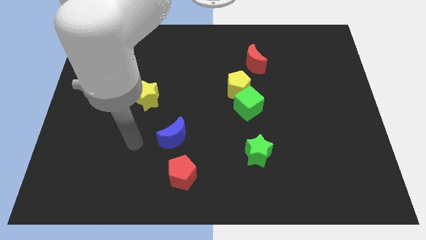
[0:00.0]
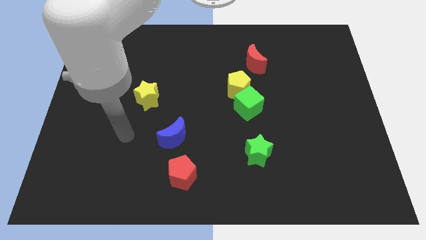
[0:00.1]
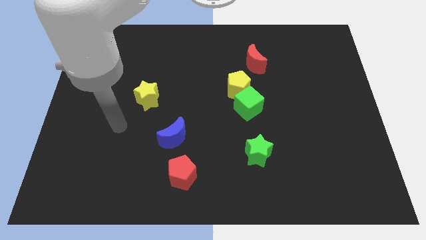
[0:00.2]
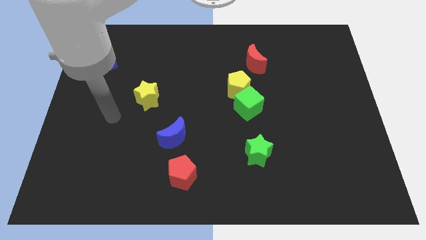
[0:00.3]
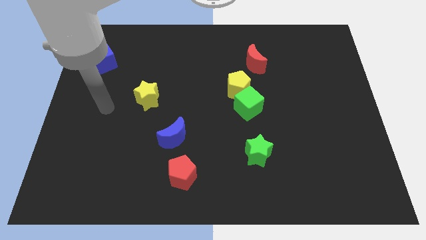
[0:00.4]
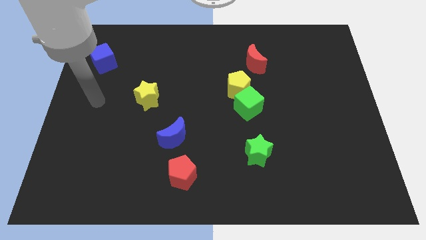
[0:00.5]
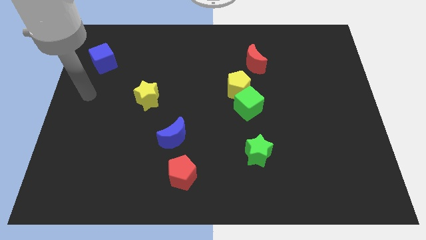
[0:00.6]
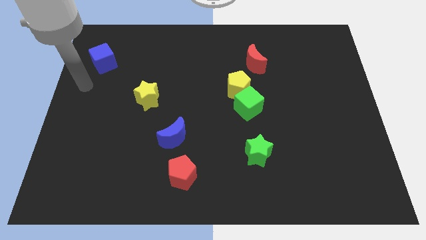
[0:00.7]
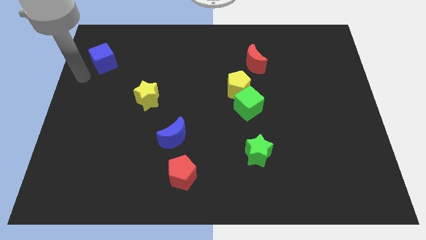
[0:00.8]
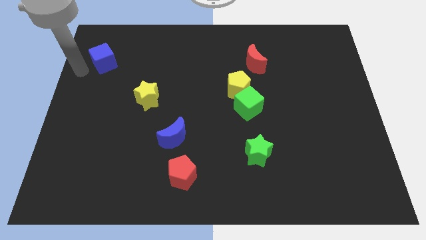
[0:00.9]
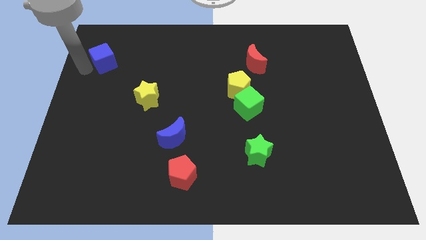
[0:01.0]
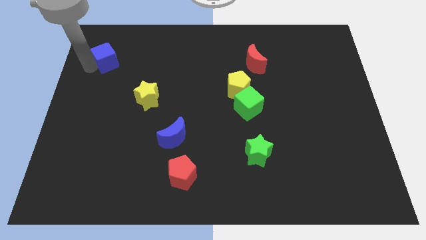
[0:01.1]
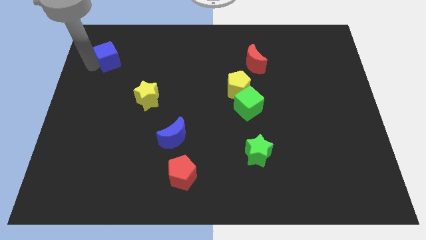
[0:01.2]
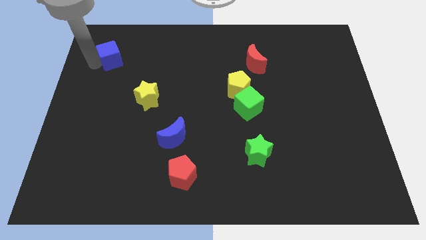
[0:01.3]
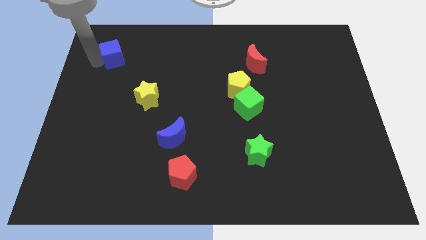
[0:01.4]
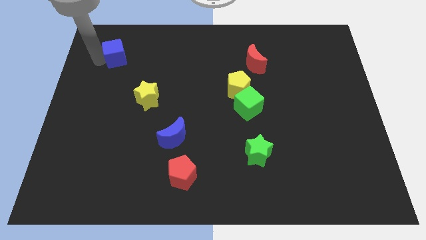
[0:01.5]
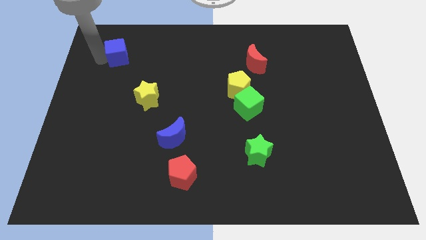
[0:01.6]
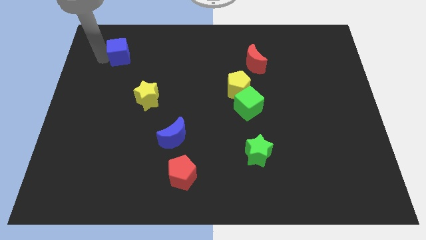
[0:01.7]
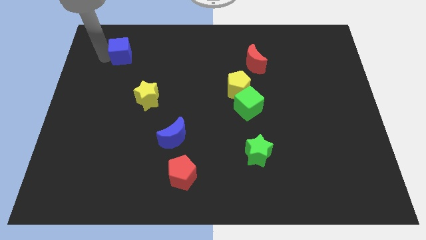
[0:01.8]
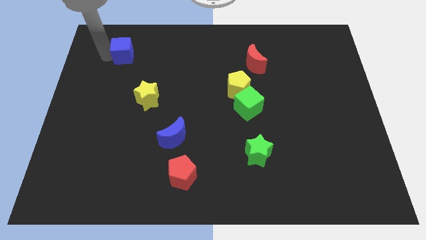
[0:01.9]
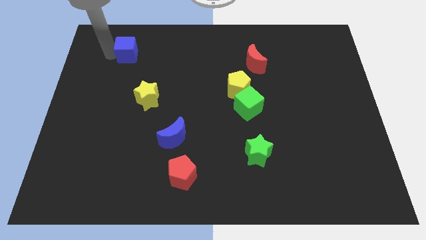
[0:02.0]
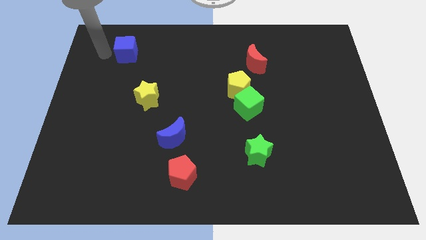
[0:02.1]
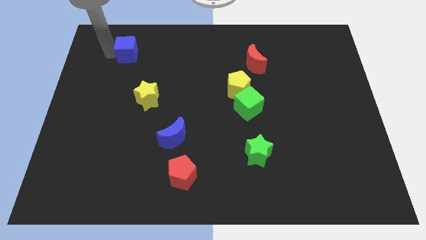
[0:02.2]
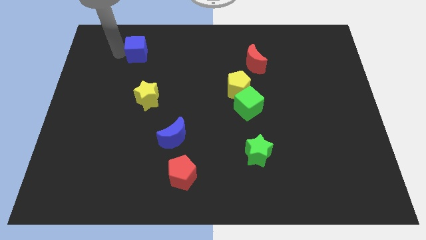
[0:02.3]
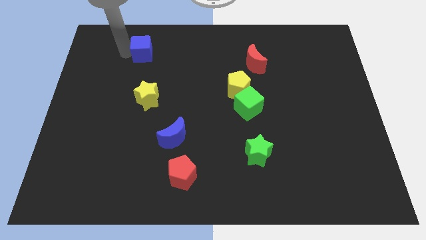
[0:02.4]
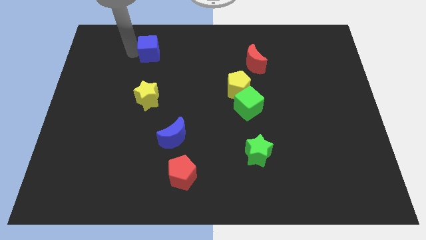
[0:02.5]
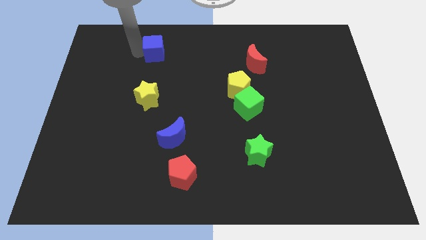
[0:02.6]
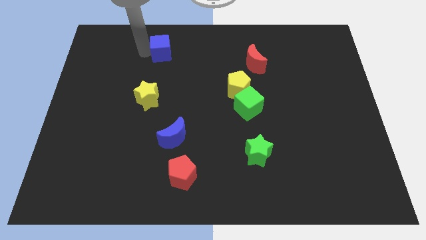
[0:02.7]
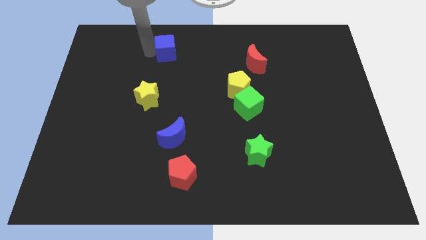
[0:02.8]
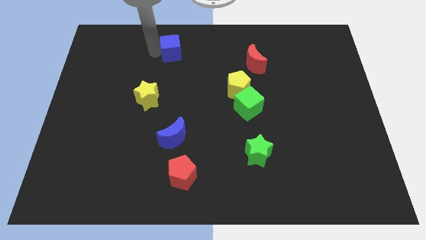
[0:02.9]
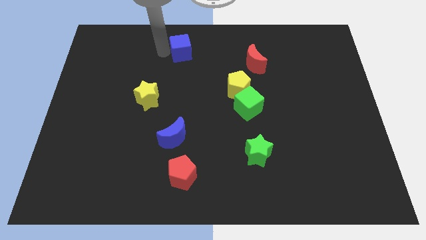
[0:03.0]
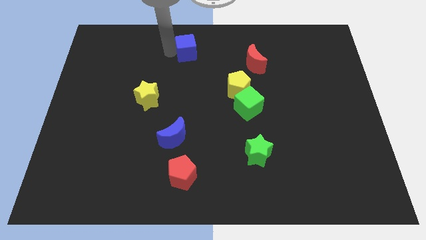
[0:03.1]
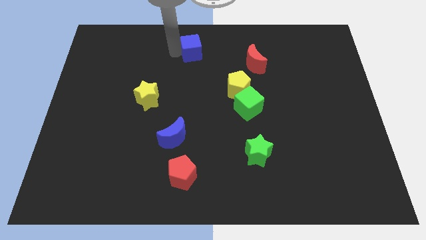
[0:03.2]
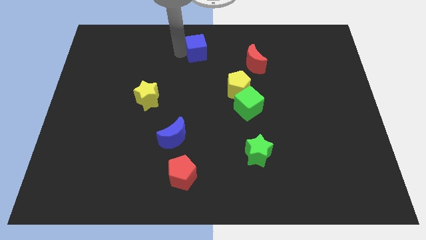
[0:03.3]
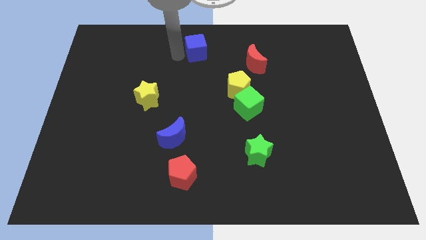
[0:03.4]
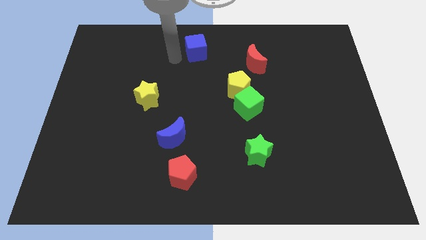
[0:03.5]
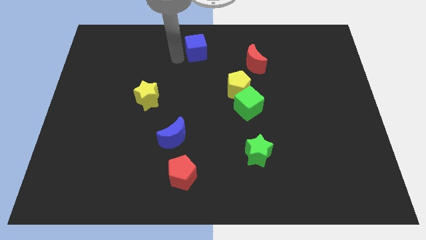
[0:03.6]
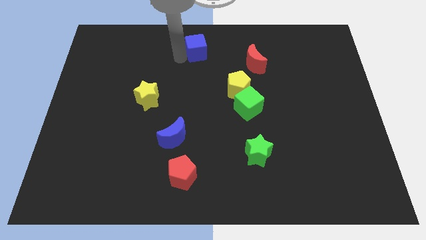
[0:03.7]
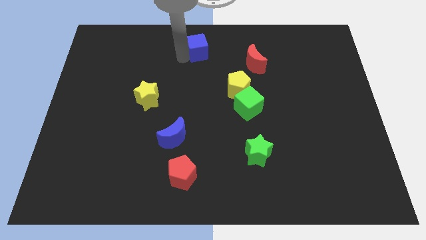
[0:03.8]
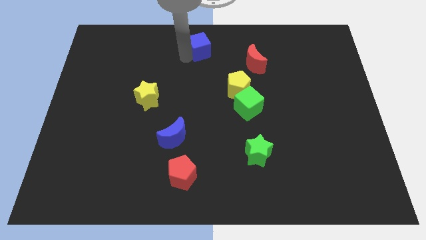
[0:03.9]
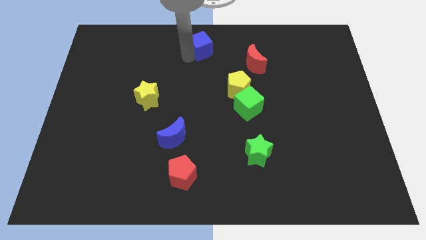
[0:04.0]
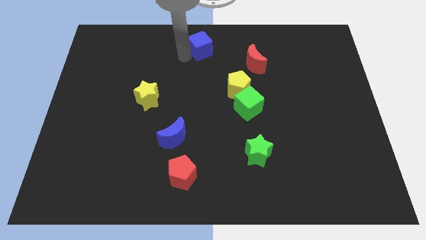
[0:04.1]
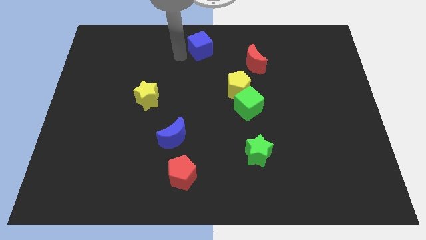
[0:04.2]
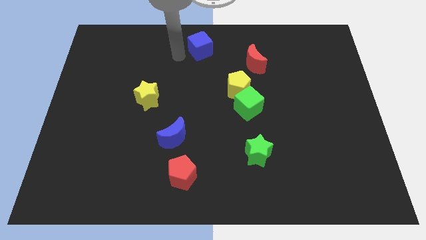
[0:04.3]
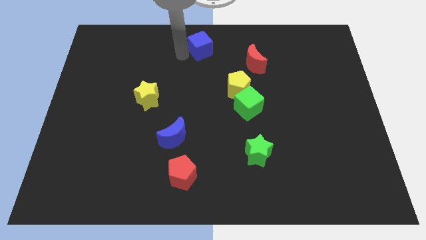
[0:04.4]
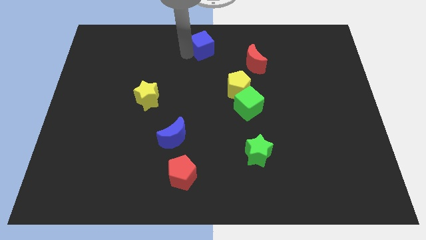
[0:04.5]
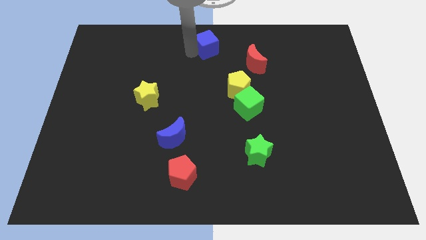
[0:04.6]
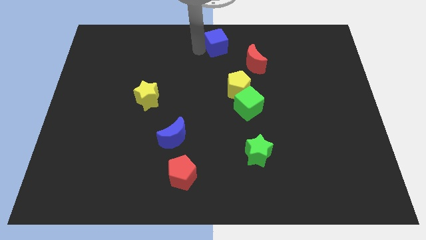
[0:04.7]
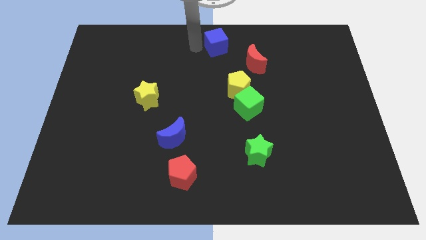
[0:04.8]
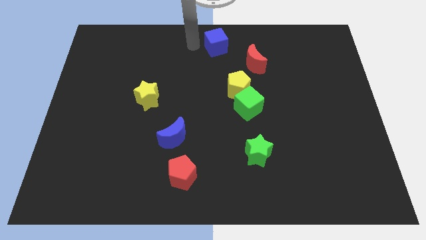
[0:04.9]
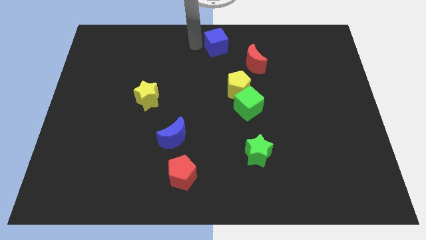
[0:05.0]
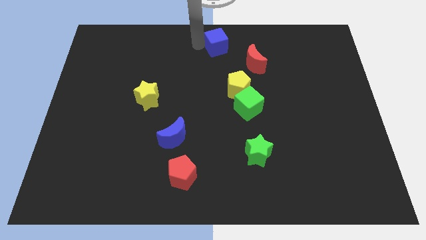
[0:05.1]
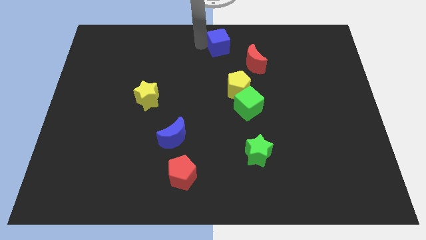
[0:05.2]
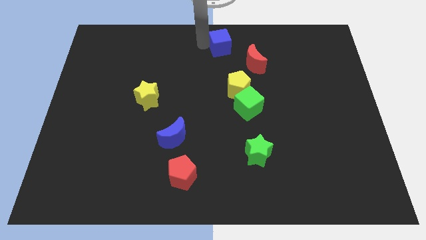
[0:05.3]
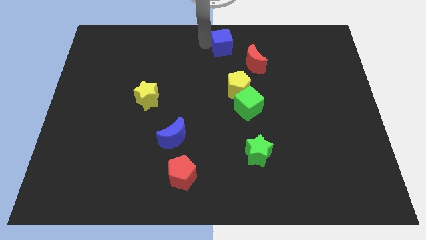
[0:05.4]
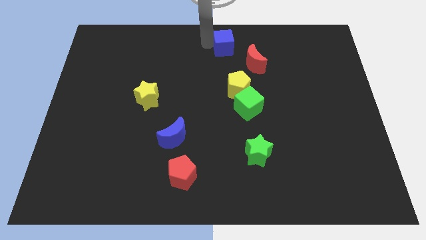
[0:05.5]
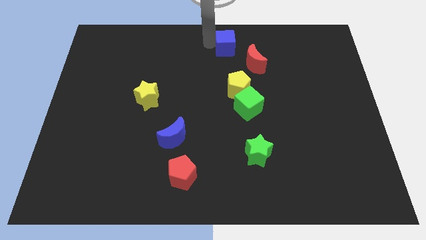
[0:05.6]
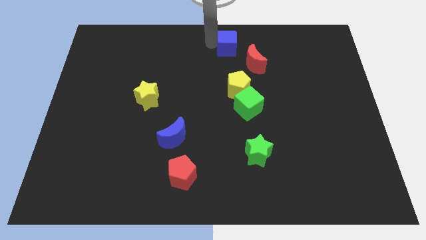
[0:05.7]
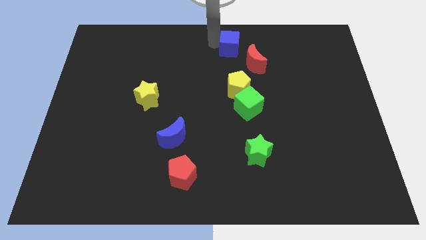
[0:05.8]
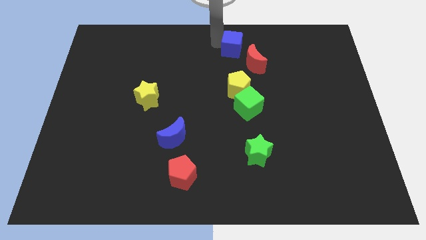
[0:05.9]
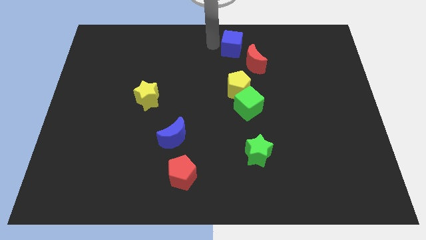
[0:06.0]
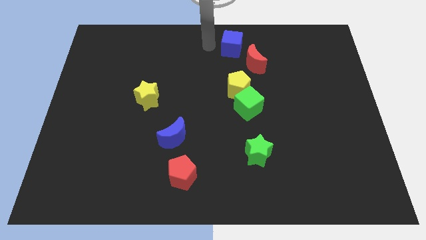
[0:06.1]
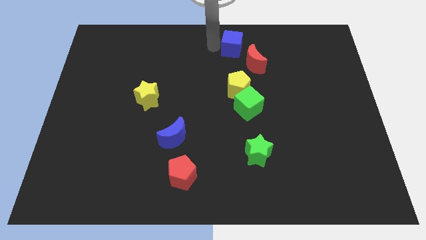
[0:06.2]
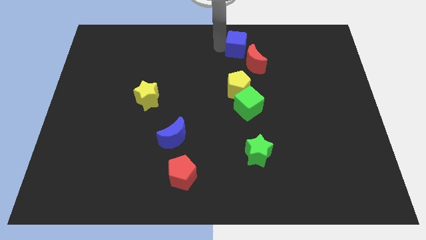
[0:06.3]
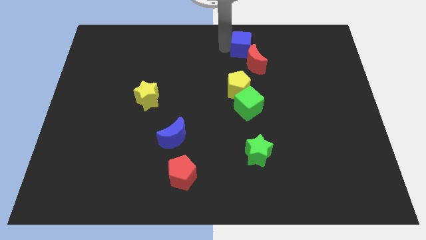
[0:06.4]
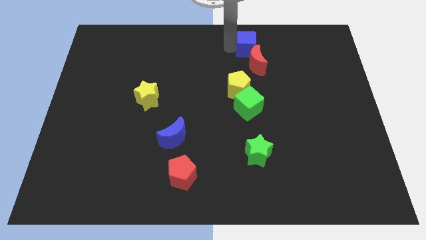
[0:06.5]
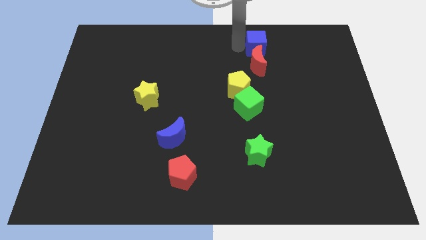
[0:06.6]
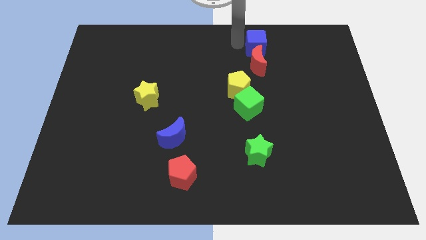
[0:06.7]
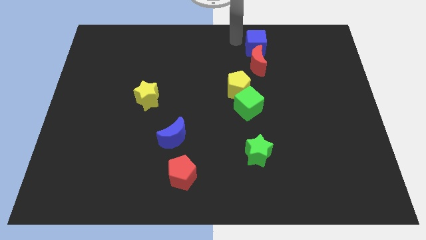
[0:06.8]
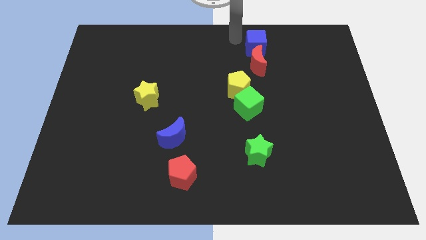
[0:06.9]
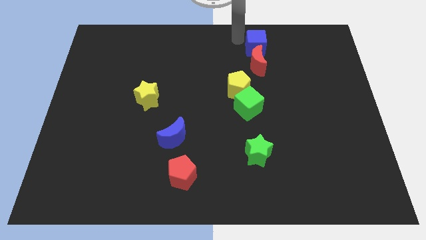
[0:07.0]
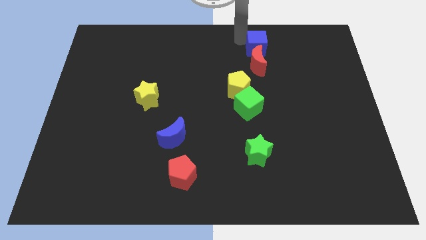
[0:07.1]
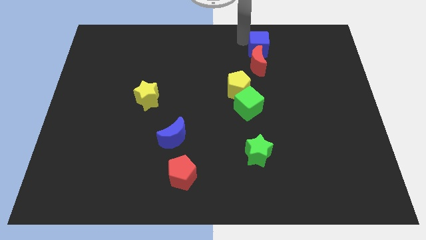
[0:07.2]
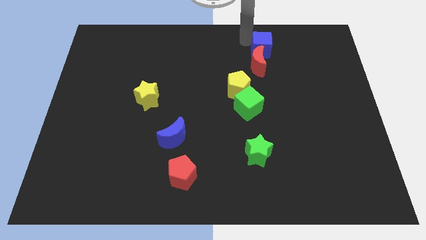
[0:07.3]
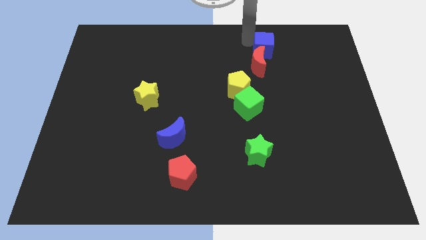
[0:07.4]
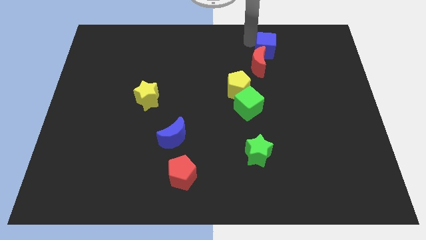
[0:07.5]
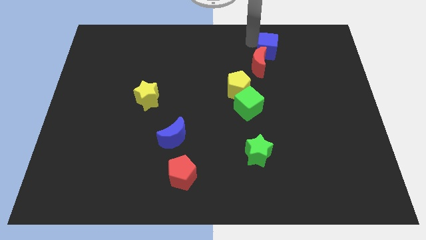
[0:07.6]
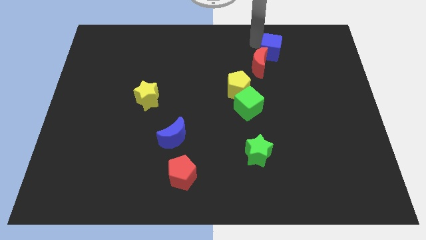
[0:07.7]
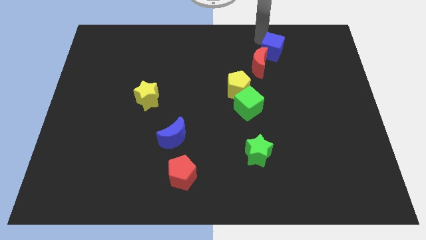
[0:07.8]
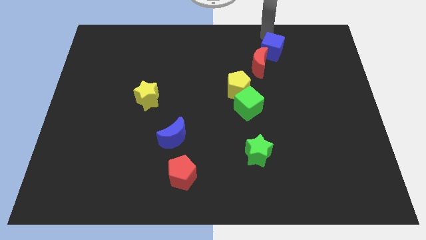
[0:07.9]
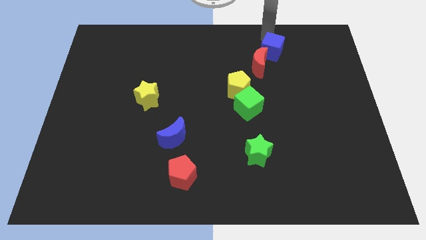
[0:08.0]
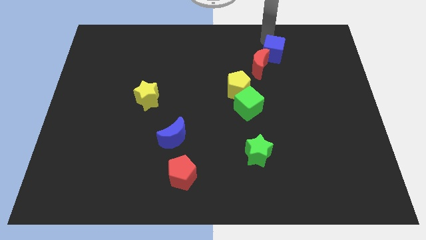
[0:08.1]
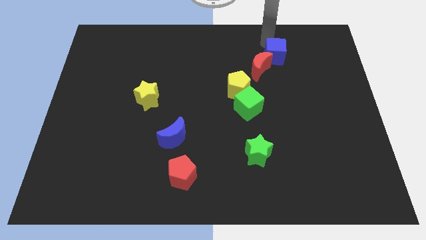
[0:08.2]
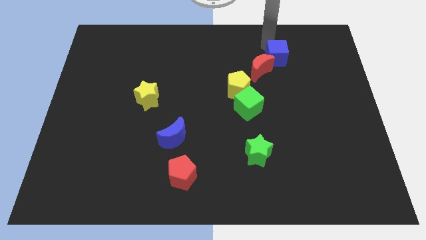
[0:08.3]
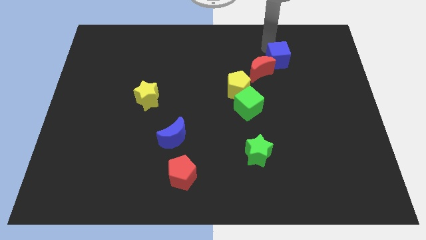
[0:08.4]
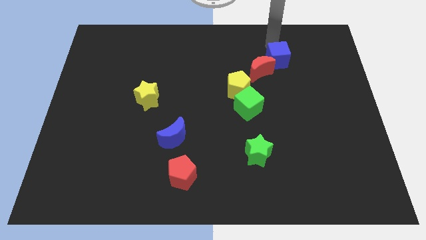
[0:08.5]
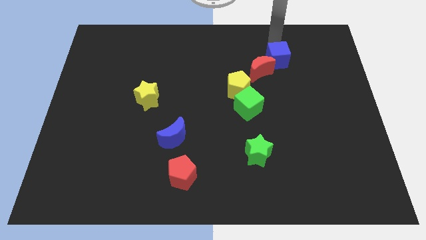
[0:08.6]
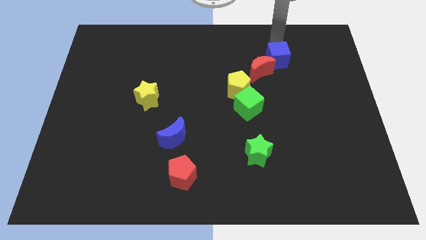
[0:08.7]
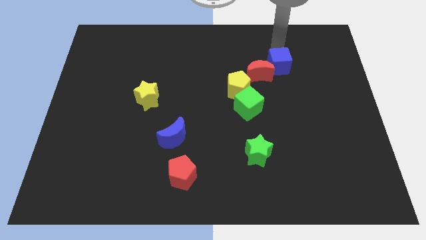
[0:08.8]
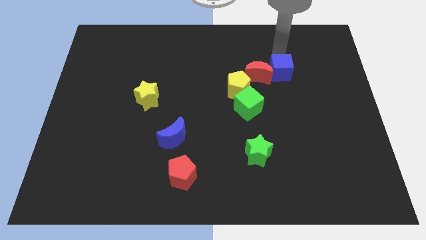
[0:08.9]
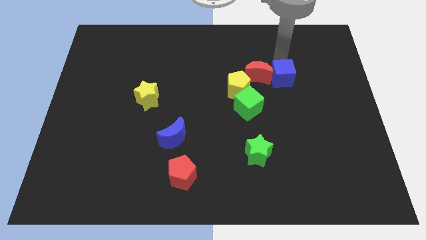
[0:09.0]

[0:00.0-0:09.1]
push the blue cube diagonally down and to the right of the red moon
